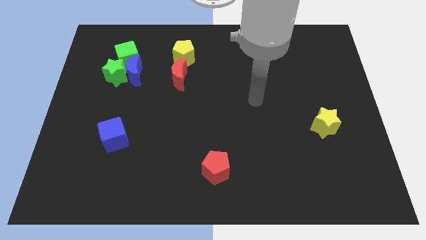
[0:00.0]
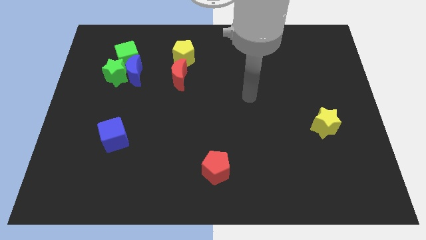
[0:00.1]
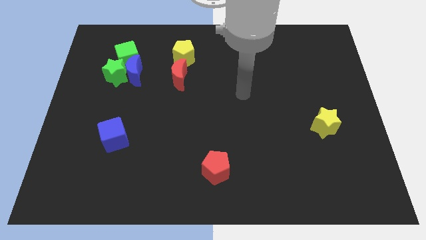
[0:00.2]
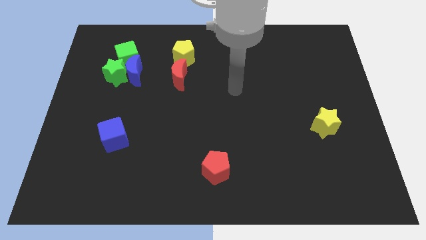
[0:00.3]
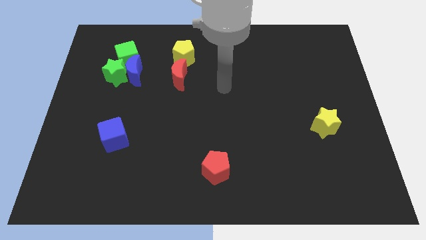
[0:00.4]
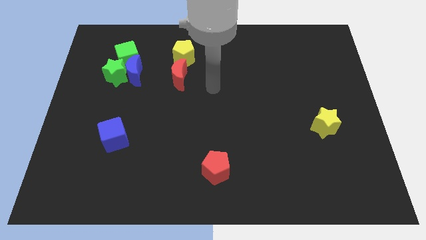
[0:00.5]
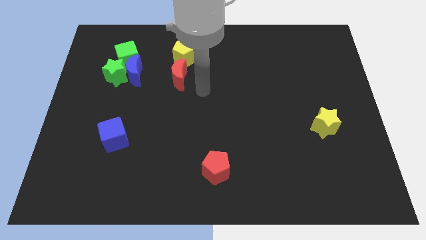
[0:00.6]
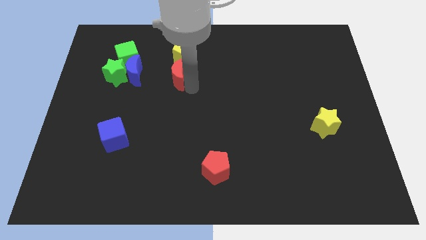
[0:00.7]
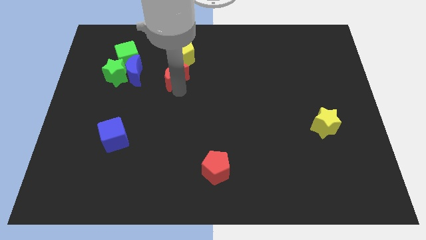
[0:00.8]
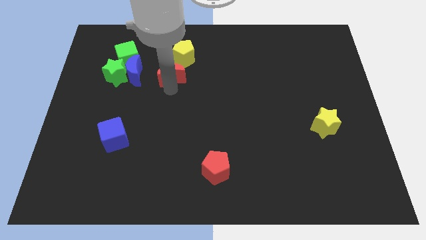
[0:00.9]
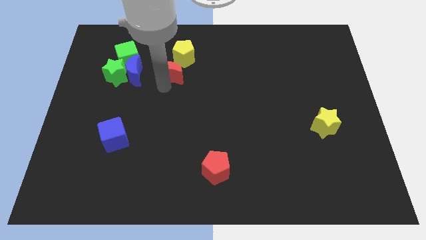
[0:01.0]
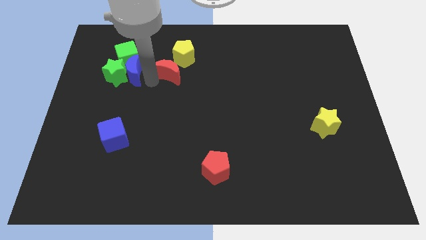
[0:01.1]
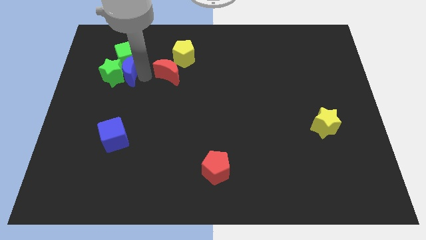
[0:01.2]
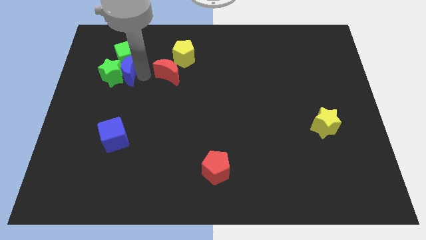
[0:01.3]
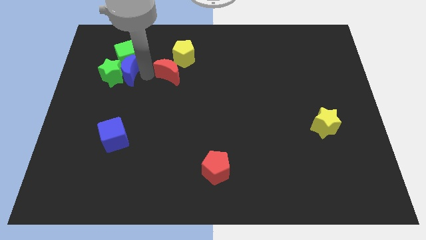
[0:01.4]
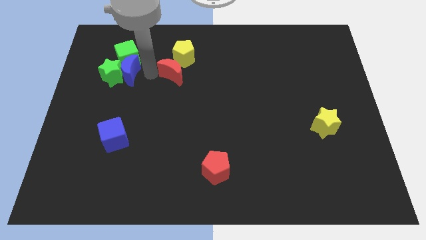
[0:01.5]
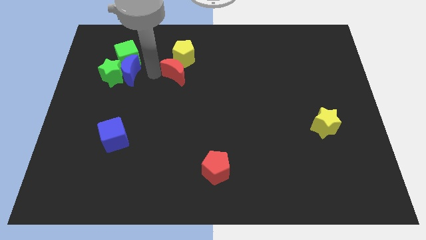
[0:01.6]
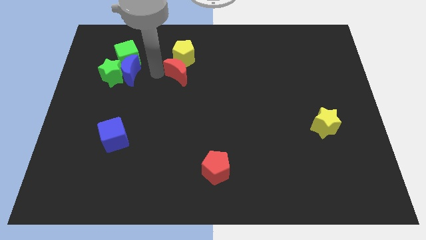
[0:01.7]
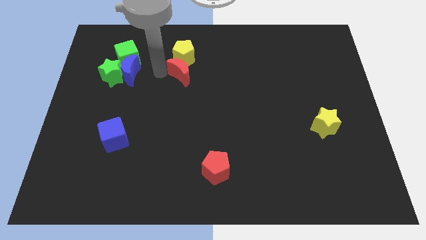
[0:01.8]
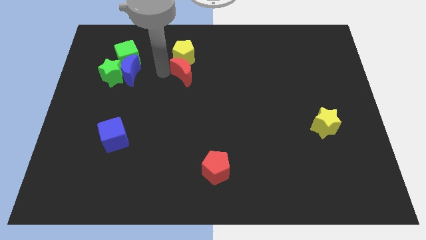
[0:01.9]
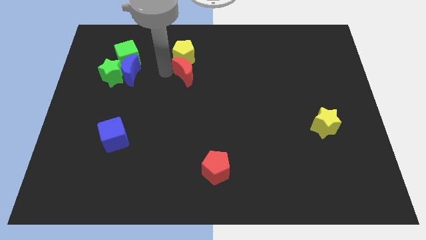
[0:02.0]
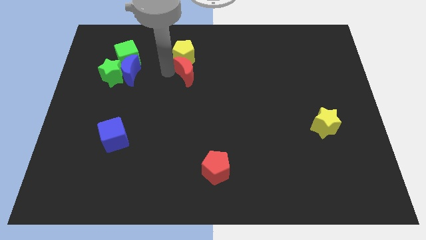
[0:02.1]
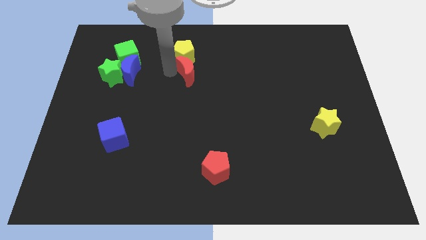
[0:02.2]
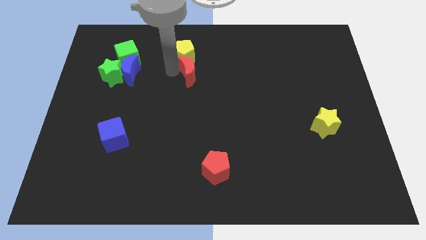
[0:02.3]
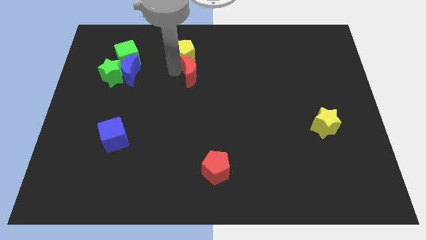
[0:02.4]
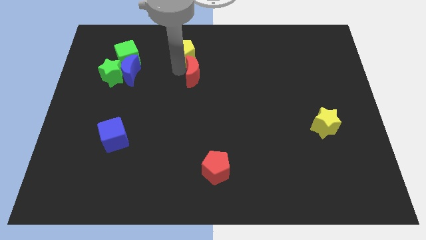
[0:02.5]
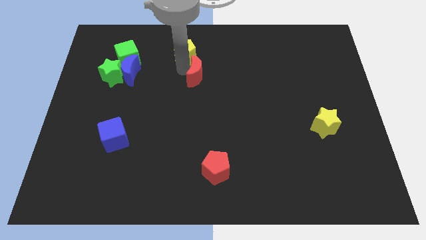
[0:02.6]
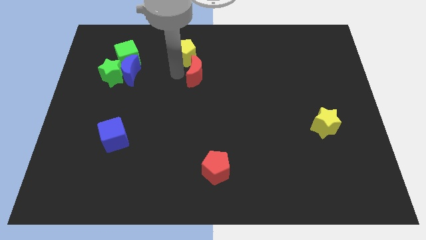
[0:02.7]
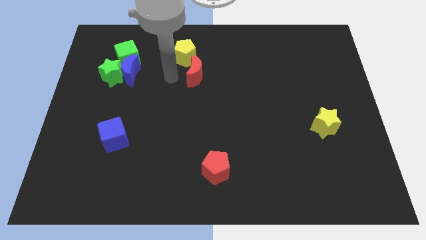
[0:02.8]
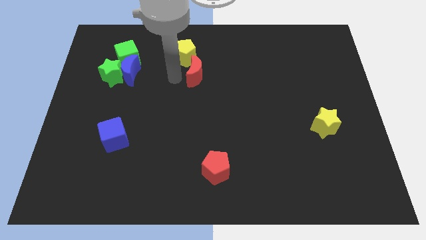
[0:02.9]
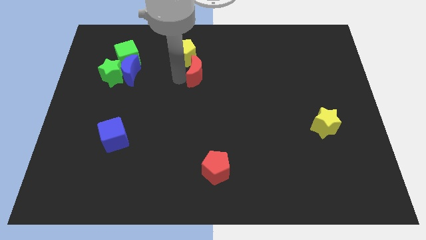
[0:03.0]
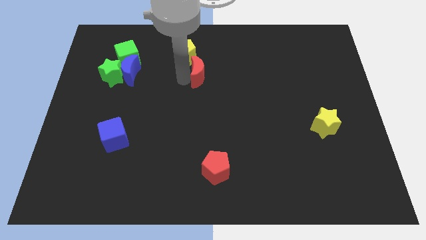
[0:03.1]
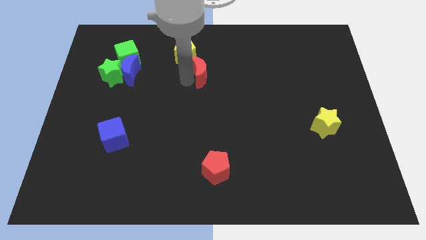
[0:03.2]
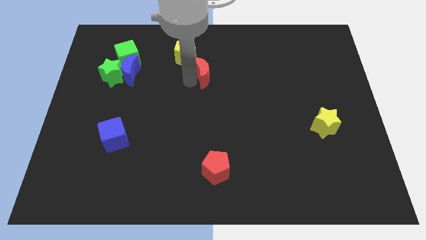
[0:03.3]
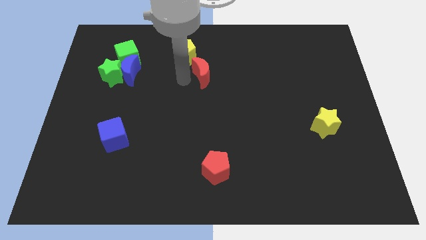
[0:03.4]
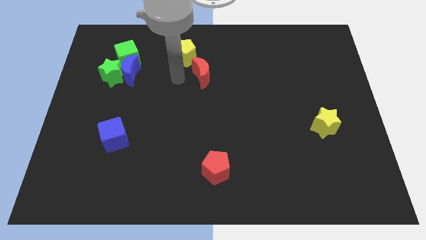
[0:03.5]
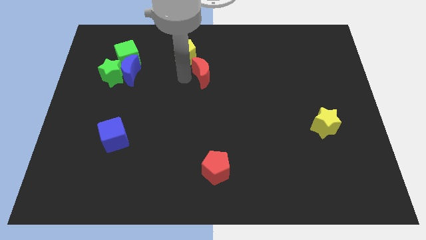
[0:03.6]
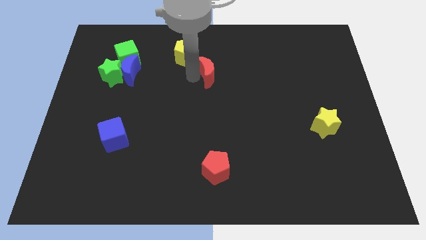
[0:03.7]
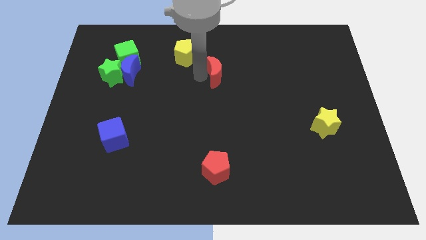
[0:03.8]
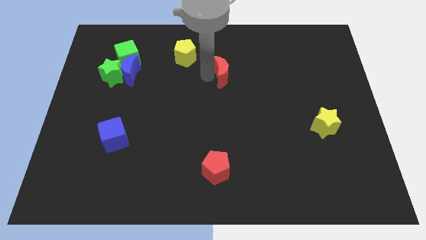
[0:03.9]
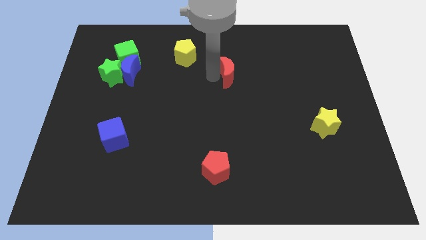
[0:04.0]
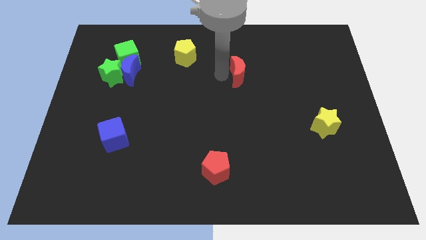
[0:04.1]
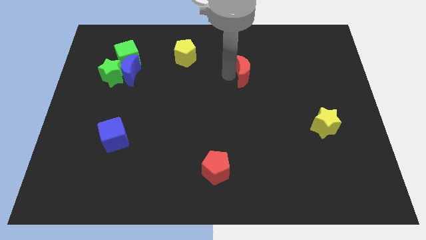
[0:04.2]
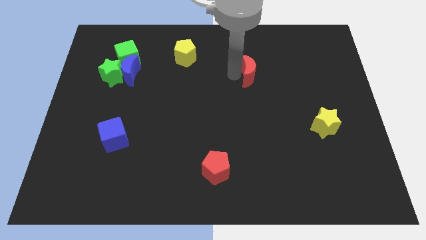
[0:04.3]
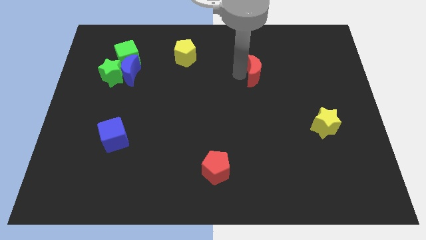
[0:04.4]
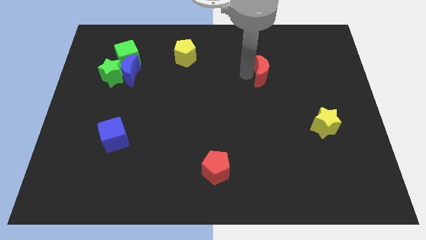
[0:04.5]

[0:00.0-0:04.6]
push the red moon right

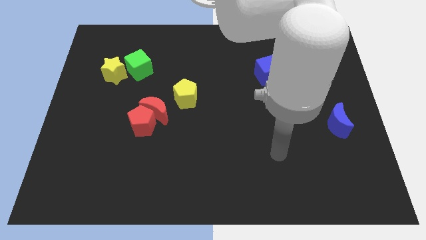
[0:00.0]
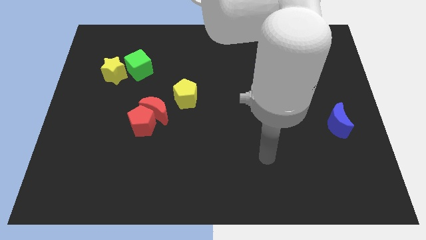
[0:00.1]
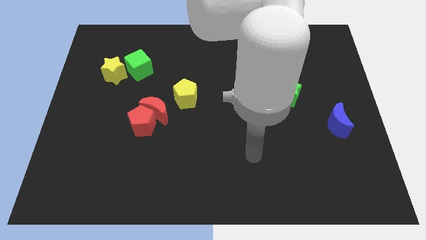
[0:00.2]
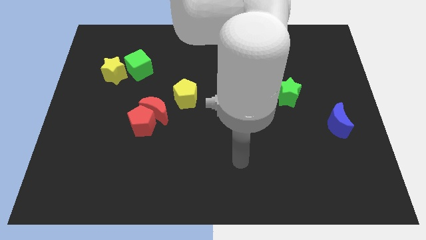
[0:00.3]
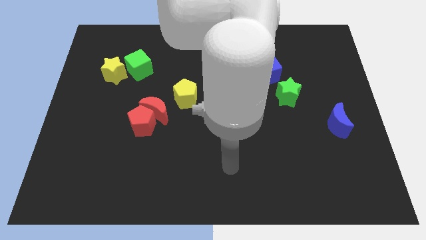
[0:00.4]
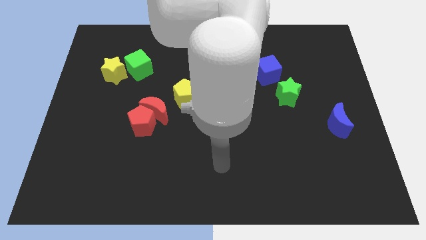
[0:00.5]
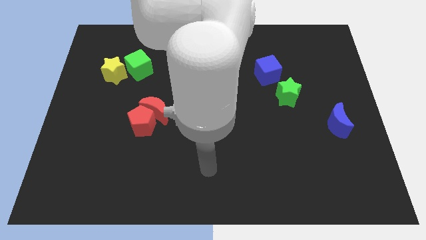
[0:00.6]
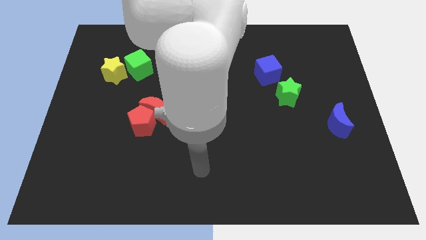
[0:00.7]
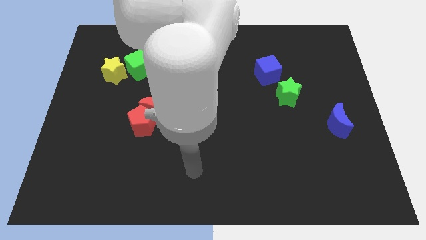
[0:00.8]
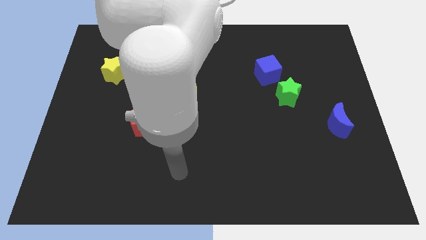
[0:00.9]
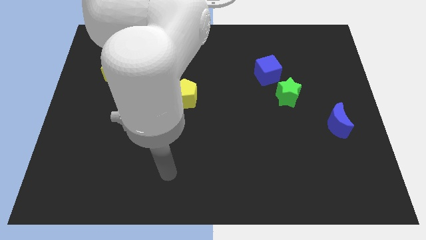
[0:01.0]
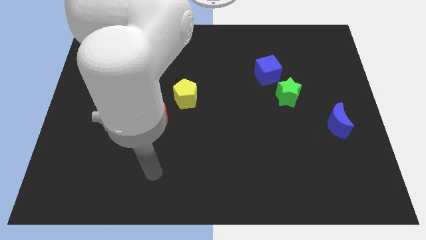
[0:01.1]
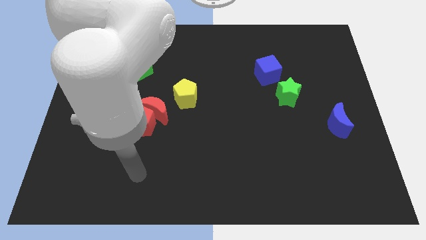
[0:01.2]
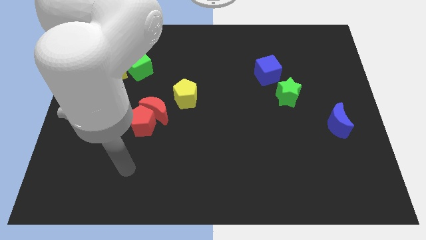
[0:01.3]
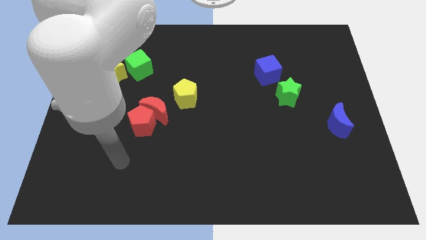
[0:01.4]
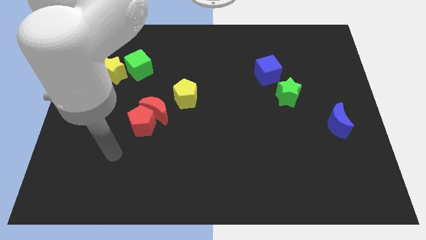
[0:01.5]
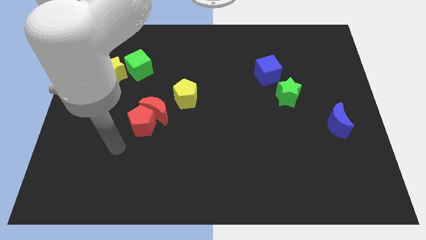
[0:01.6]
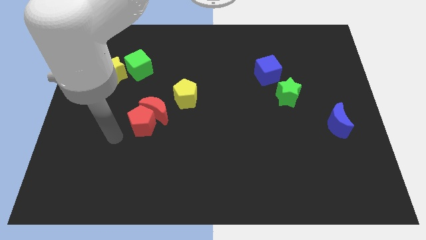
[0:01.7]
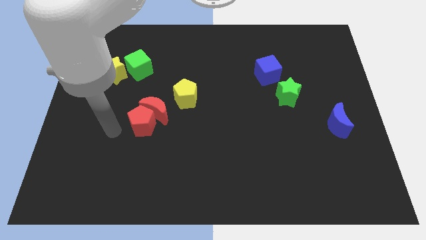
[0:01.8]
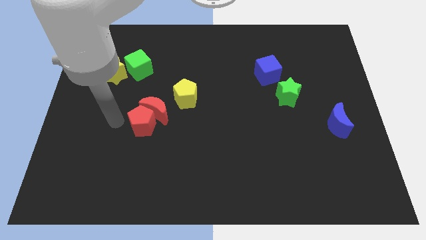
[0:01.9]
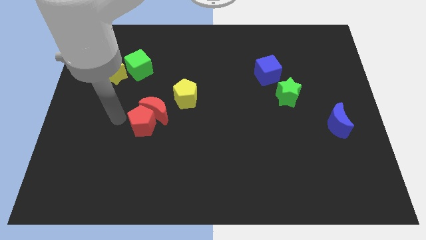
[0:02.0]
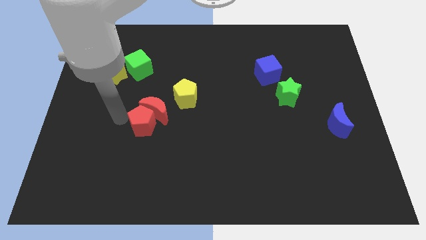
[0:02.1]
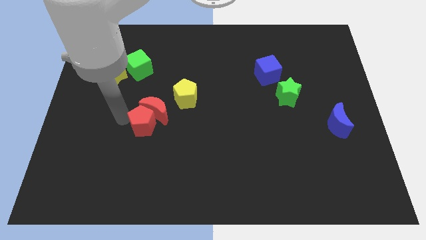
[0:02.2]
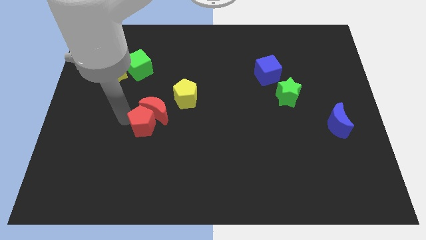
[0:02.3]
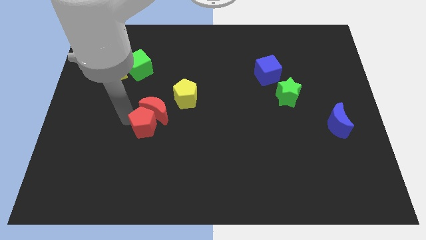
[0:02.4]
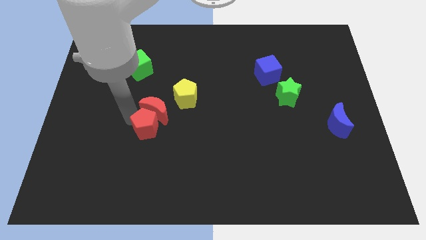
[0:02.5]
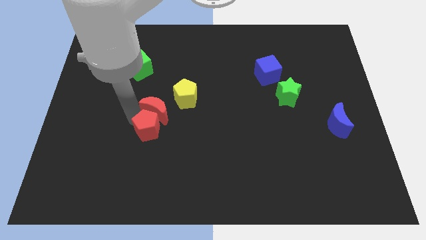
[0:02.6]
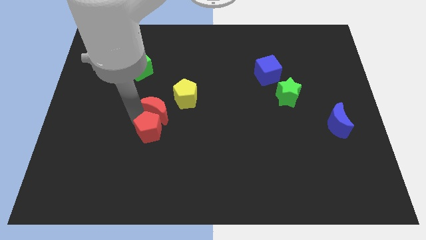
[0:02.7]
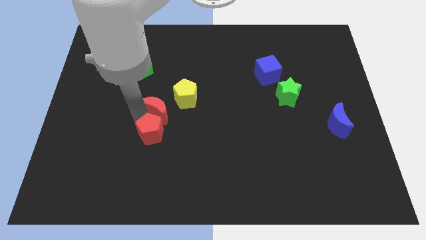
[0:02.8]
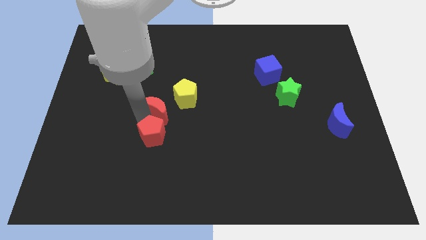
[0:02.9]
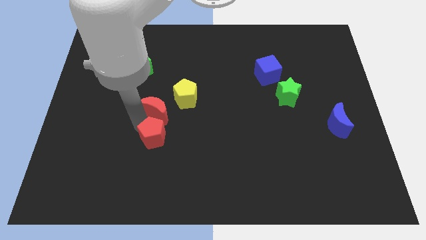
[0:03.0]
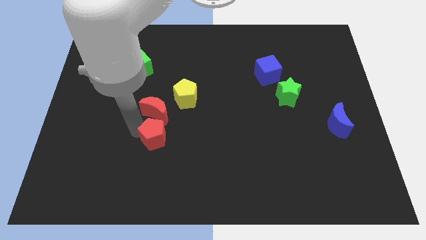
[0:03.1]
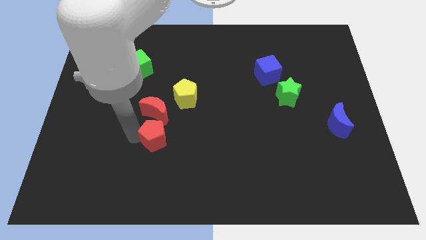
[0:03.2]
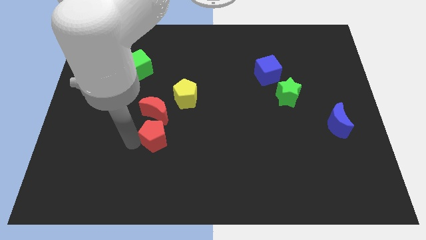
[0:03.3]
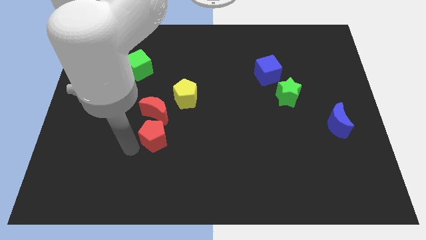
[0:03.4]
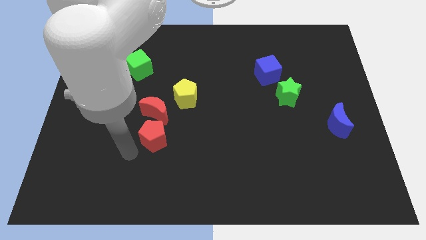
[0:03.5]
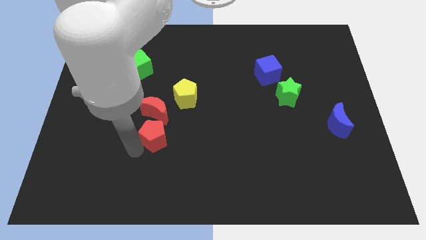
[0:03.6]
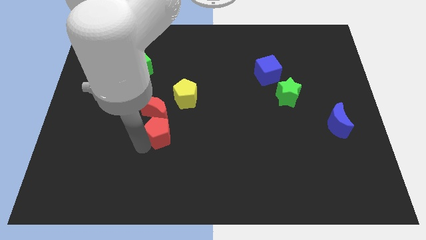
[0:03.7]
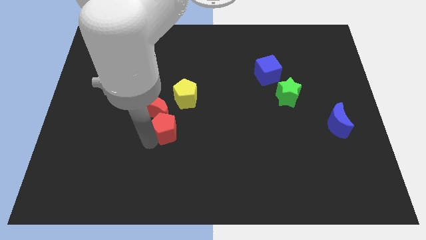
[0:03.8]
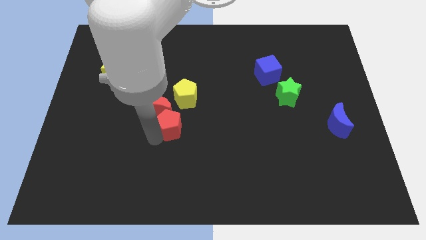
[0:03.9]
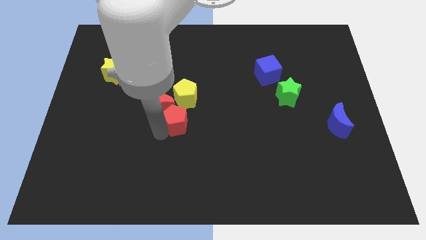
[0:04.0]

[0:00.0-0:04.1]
push the red pentagon a little right
